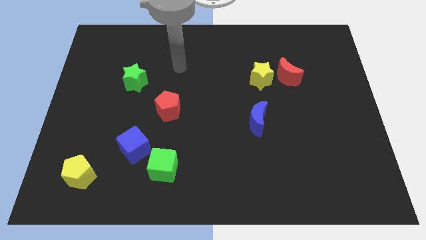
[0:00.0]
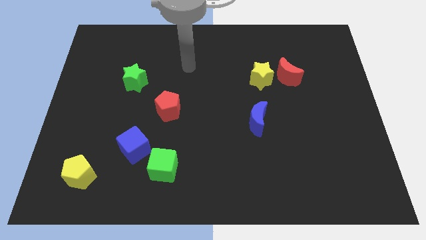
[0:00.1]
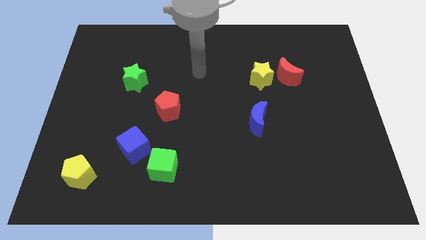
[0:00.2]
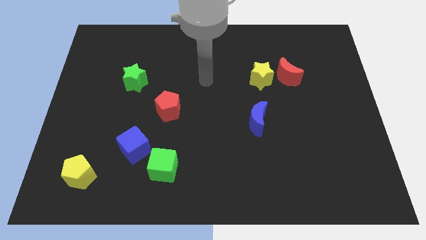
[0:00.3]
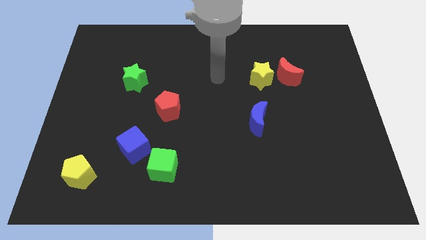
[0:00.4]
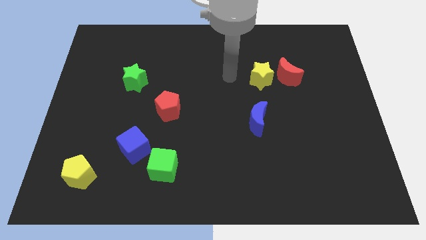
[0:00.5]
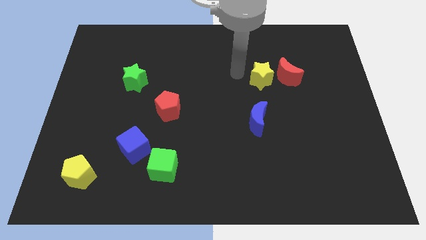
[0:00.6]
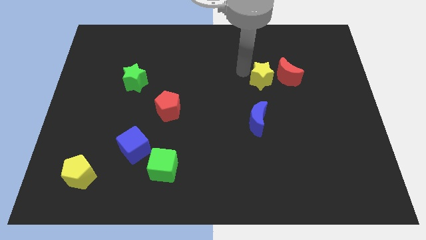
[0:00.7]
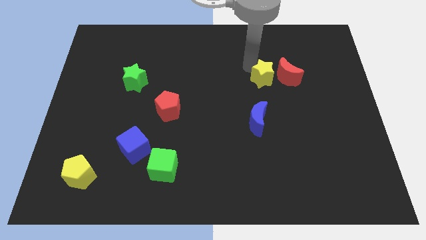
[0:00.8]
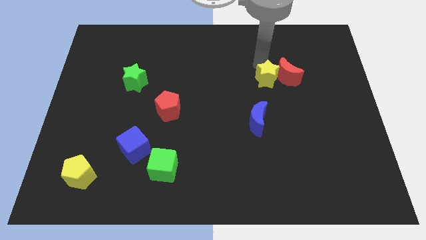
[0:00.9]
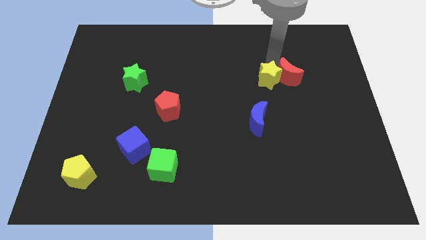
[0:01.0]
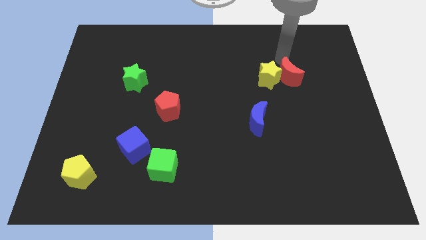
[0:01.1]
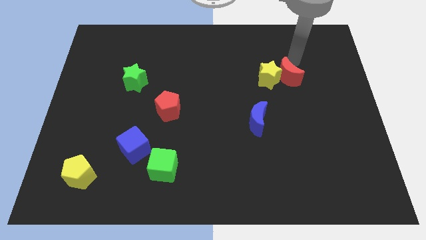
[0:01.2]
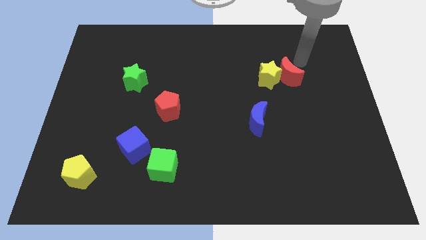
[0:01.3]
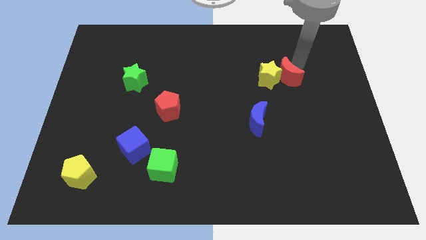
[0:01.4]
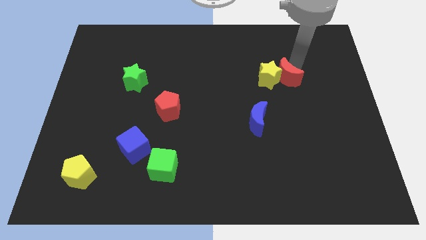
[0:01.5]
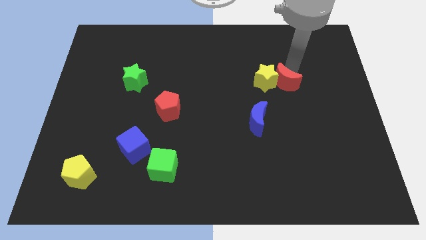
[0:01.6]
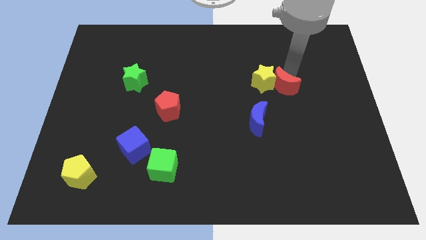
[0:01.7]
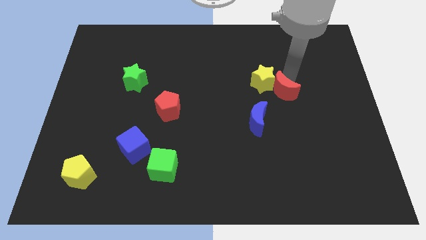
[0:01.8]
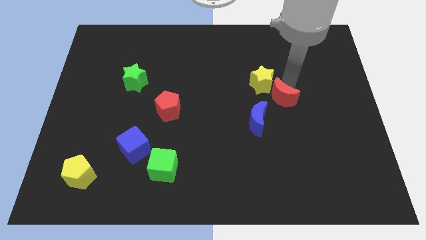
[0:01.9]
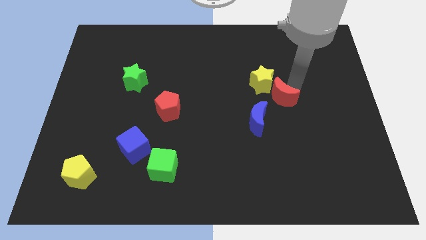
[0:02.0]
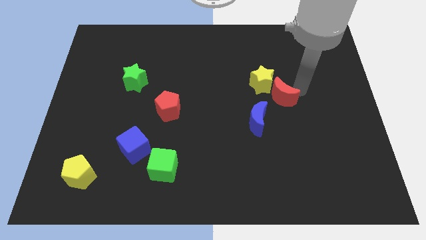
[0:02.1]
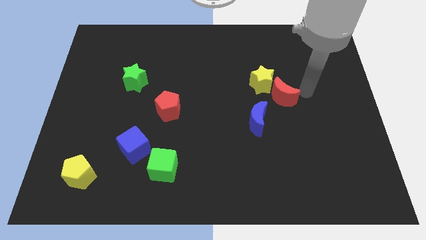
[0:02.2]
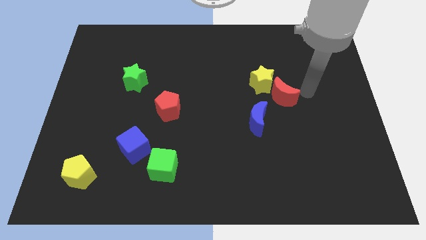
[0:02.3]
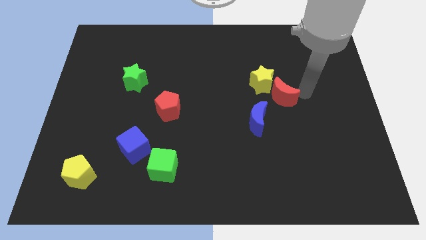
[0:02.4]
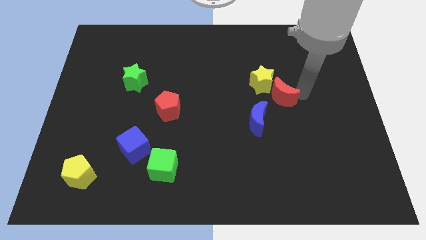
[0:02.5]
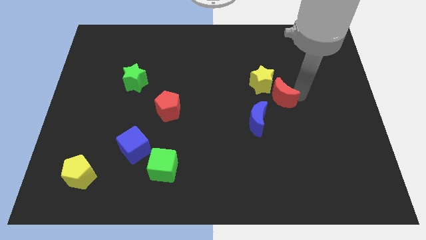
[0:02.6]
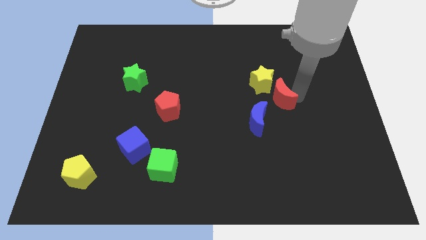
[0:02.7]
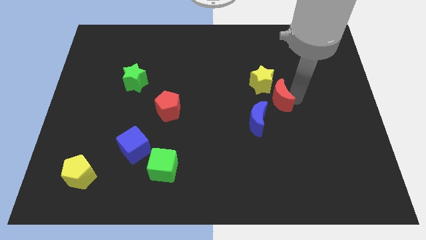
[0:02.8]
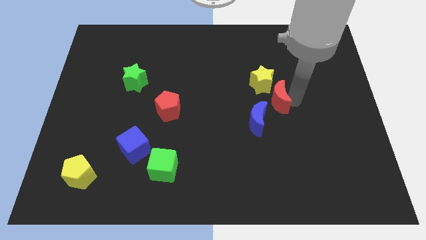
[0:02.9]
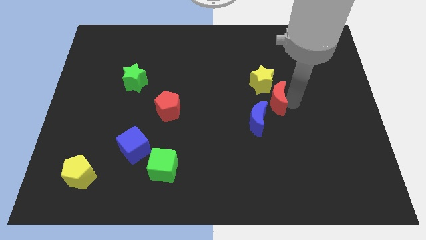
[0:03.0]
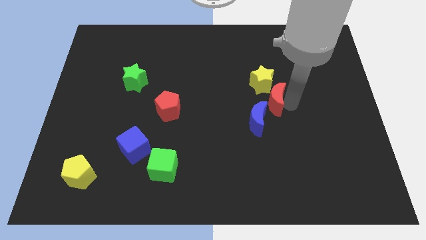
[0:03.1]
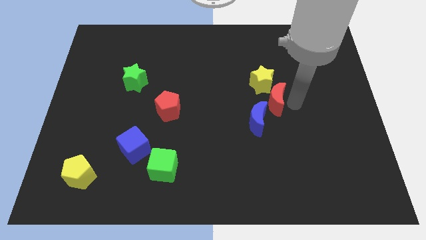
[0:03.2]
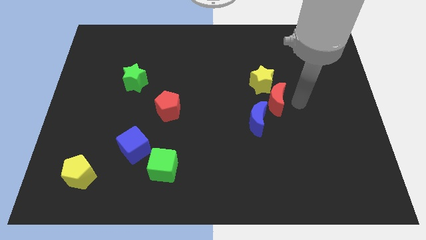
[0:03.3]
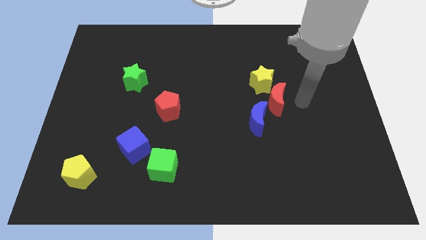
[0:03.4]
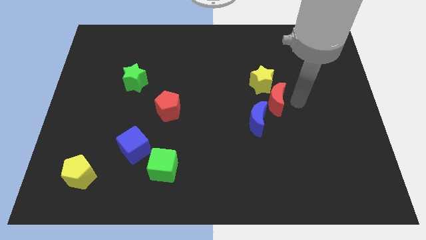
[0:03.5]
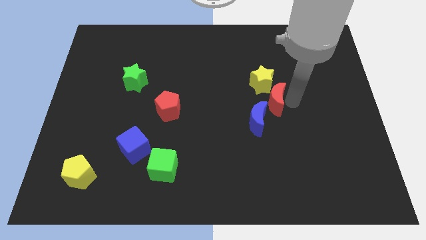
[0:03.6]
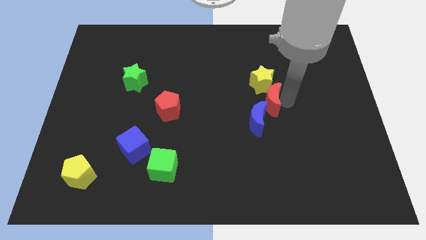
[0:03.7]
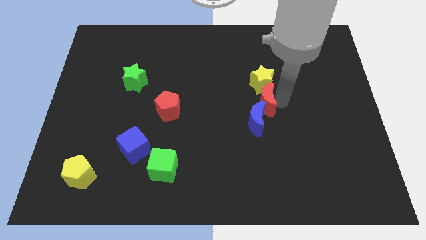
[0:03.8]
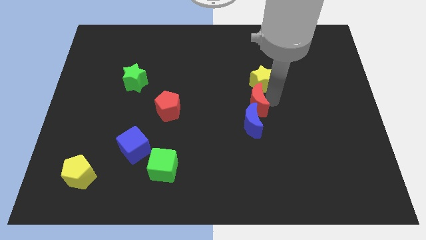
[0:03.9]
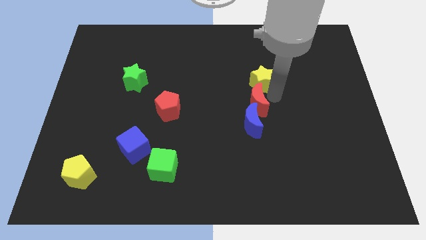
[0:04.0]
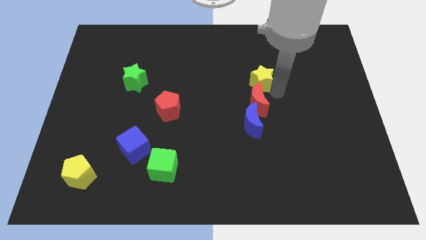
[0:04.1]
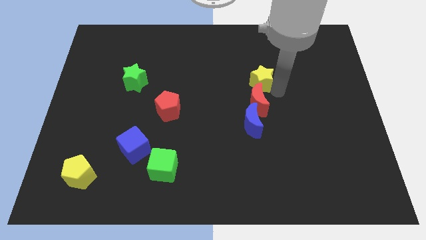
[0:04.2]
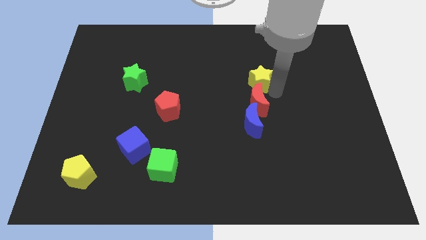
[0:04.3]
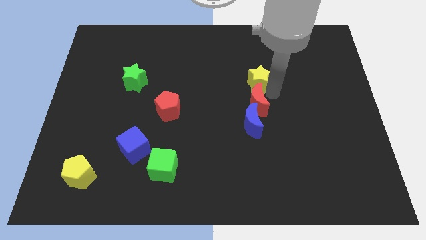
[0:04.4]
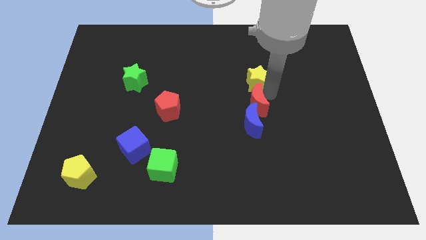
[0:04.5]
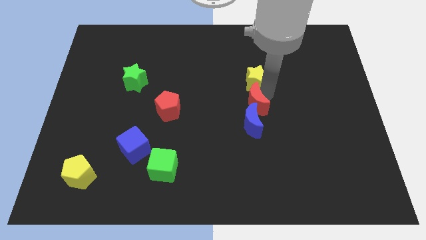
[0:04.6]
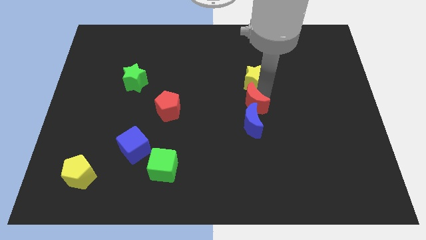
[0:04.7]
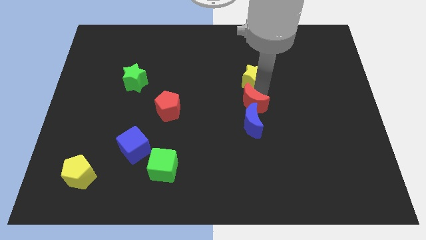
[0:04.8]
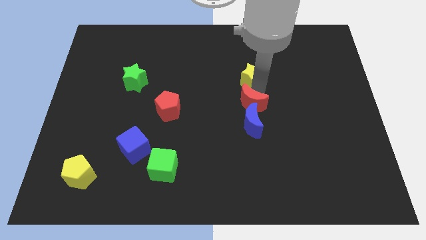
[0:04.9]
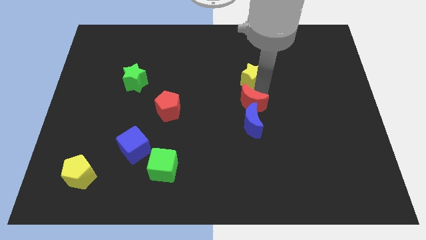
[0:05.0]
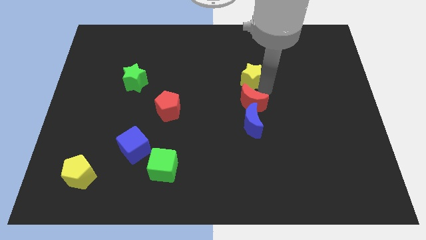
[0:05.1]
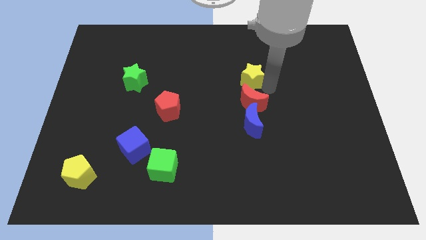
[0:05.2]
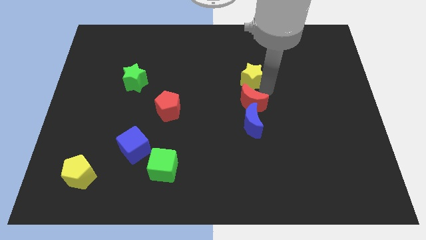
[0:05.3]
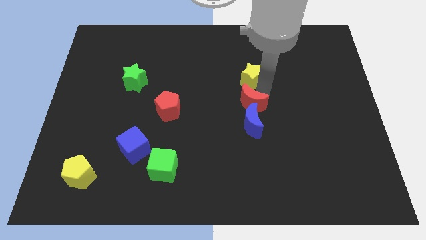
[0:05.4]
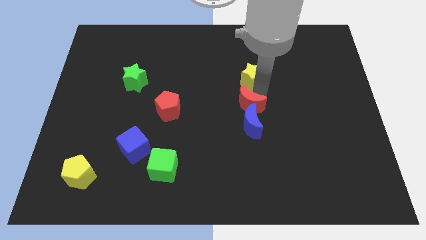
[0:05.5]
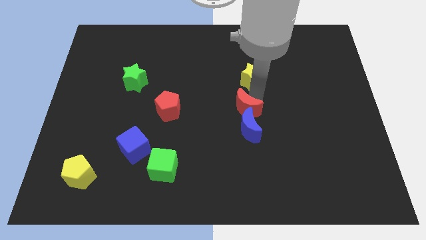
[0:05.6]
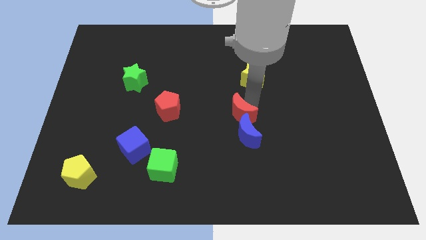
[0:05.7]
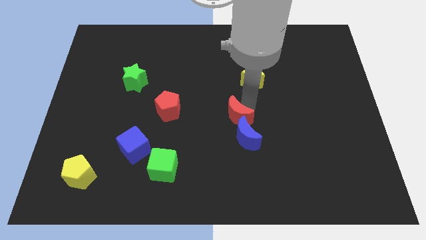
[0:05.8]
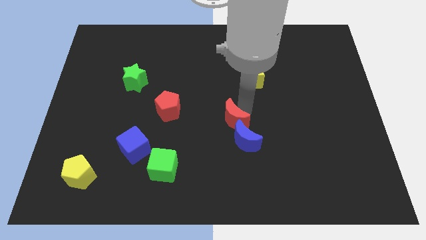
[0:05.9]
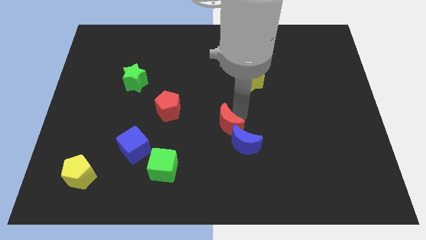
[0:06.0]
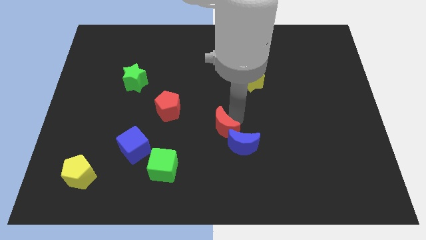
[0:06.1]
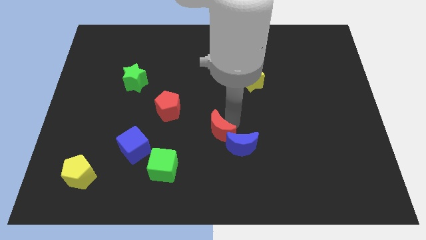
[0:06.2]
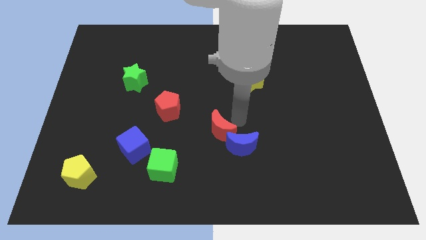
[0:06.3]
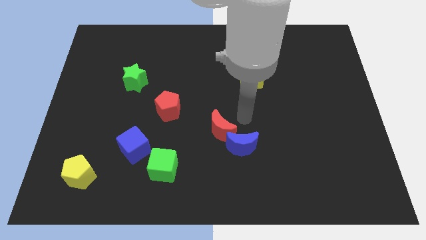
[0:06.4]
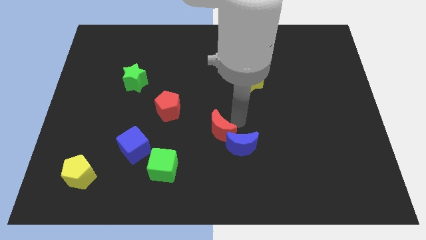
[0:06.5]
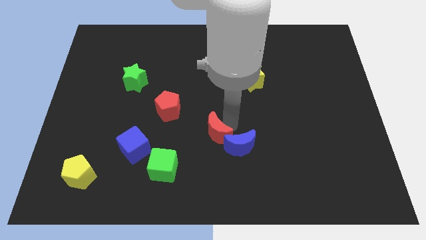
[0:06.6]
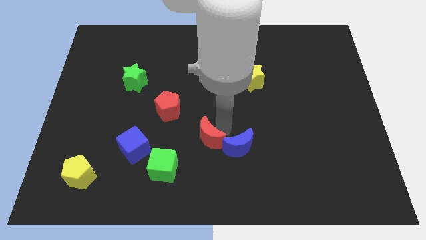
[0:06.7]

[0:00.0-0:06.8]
move the red moon to the top right side of the green cube

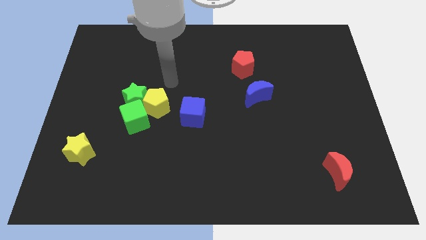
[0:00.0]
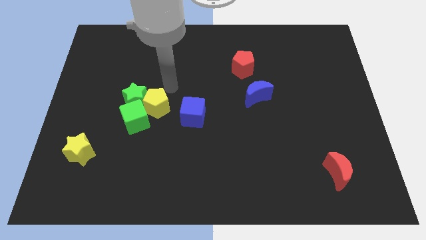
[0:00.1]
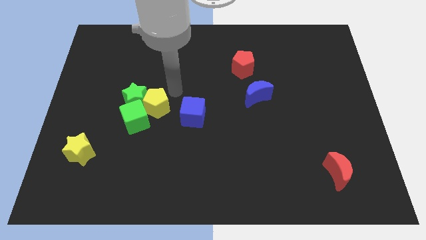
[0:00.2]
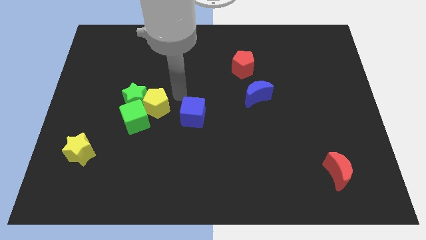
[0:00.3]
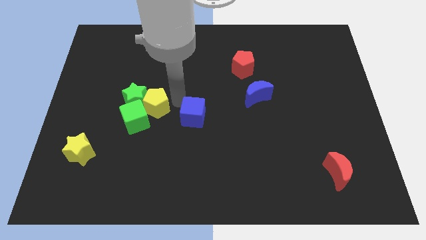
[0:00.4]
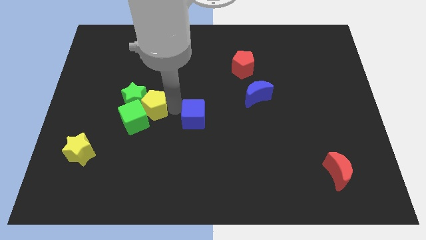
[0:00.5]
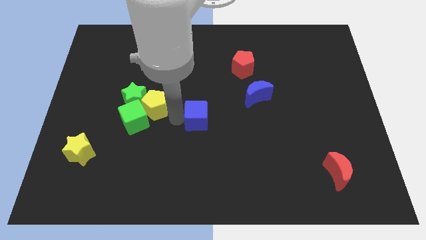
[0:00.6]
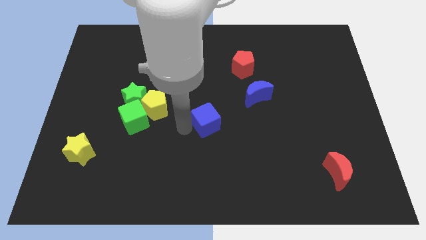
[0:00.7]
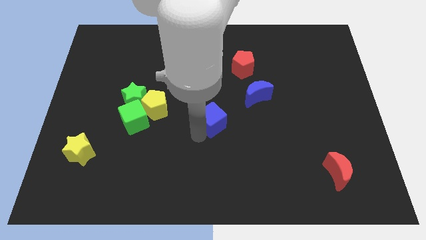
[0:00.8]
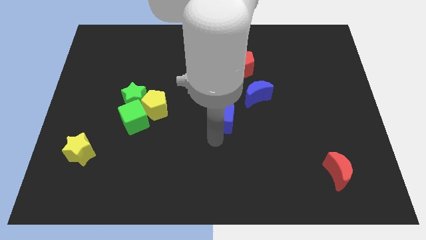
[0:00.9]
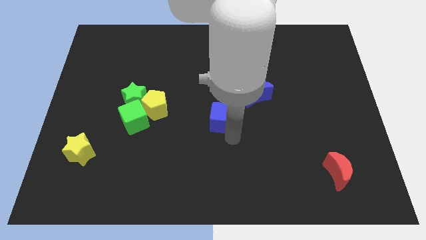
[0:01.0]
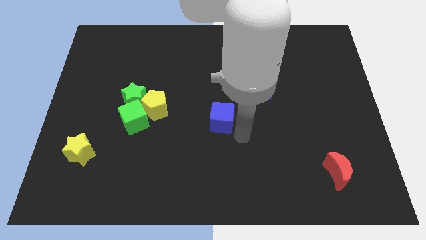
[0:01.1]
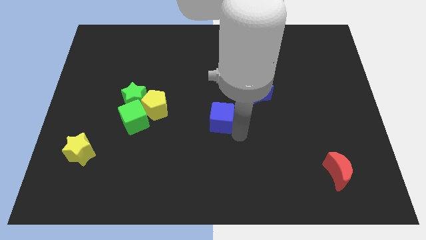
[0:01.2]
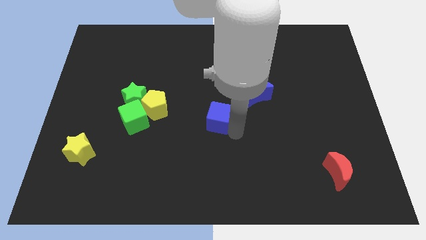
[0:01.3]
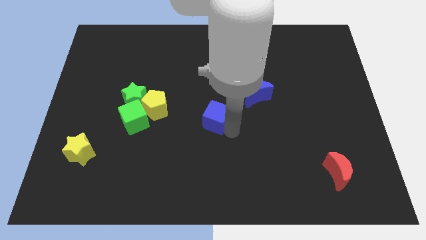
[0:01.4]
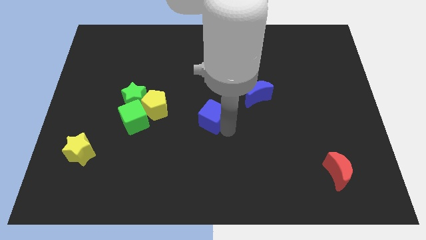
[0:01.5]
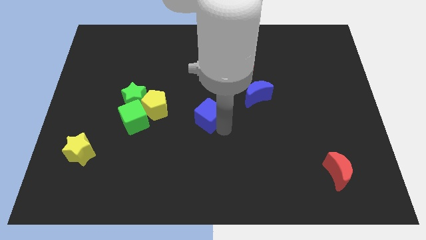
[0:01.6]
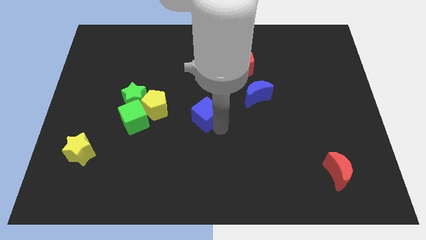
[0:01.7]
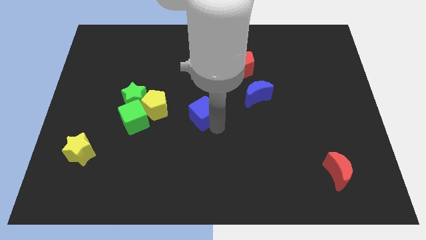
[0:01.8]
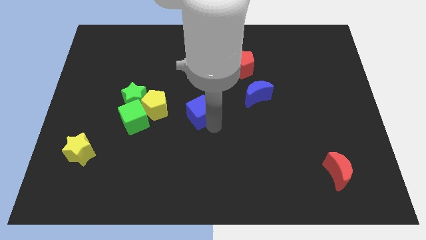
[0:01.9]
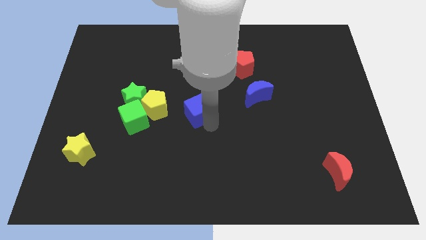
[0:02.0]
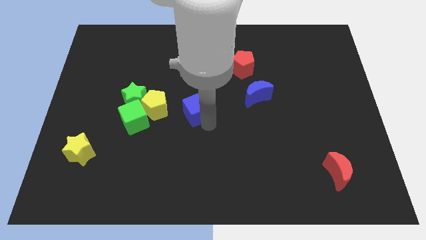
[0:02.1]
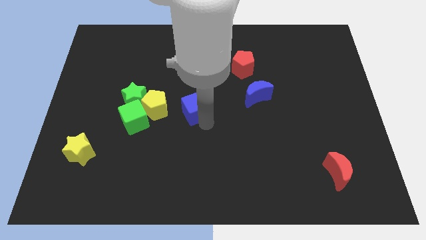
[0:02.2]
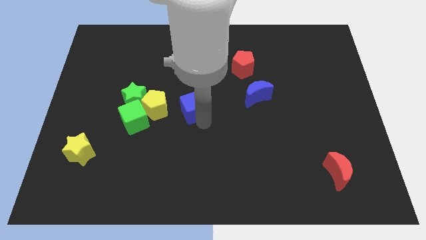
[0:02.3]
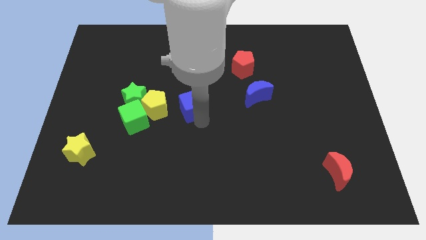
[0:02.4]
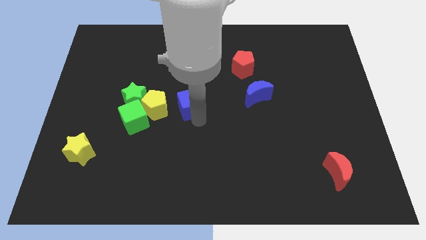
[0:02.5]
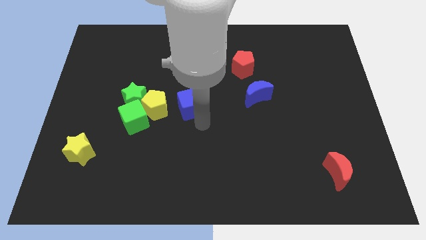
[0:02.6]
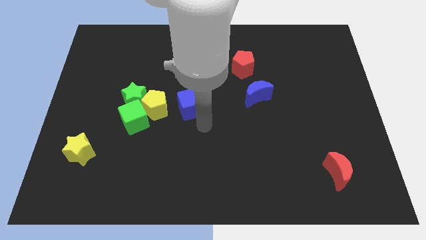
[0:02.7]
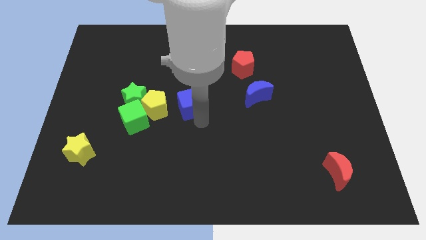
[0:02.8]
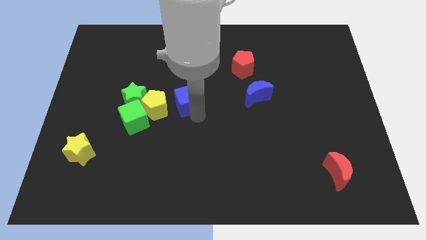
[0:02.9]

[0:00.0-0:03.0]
put the blue cube diagonally up and to the right of the yellow pentagon
